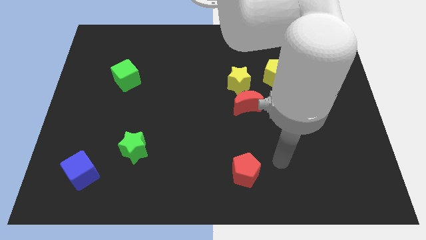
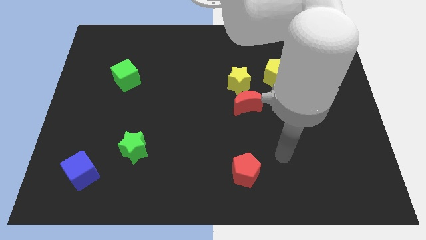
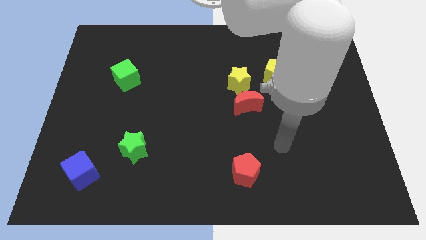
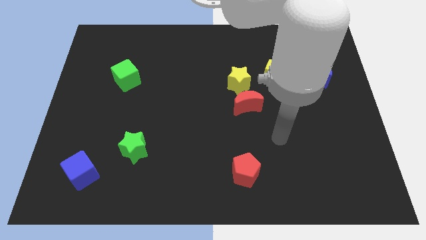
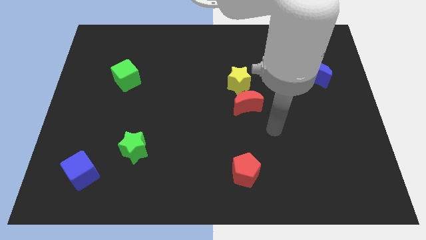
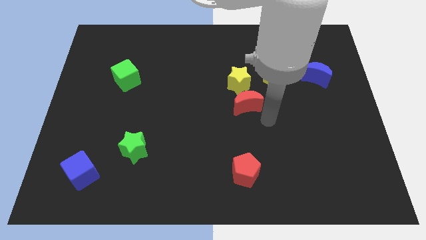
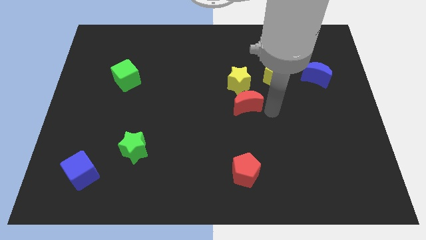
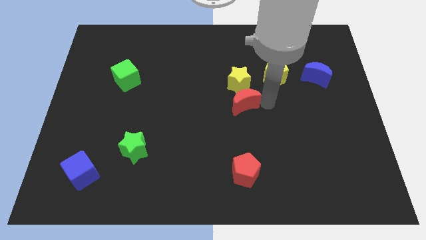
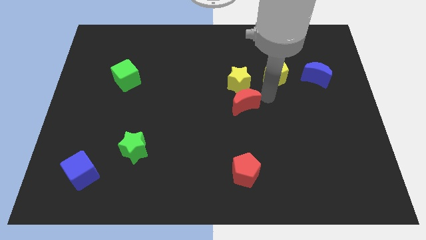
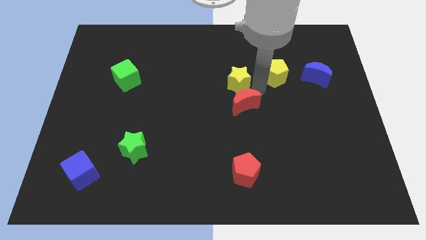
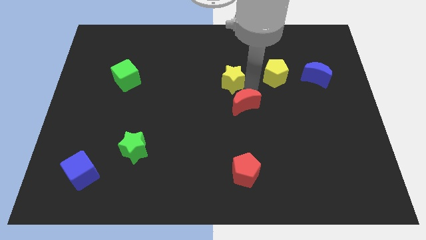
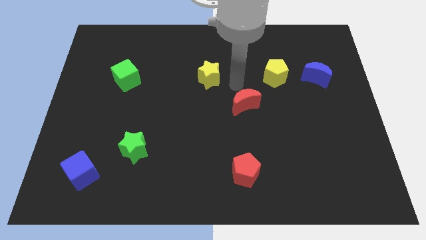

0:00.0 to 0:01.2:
separate the red moon from the yellow star

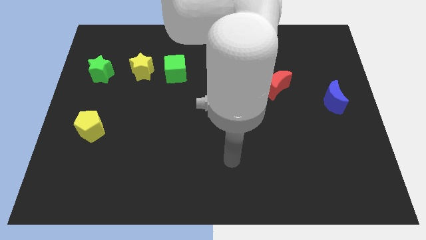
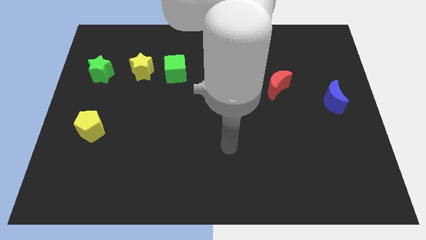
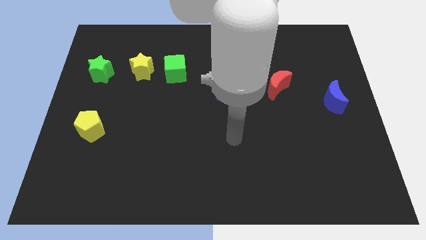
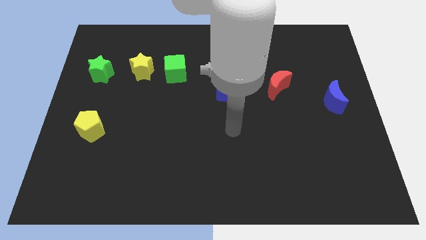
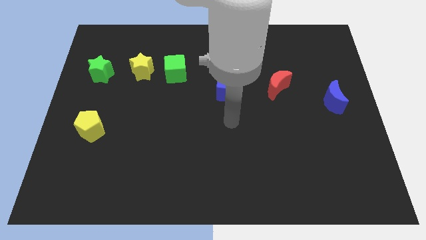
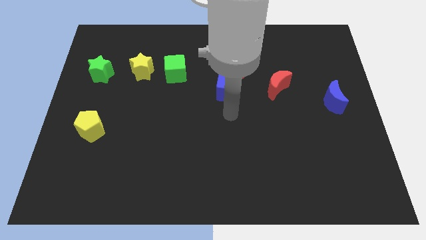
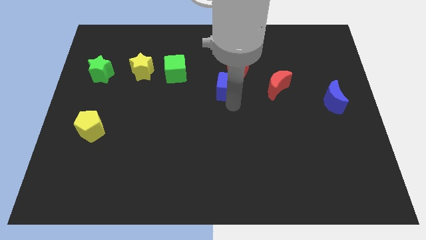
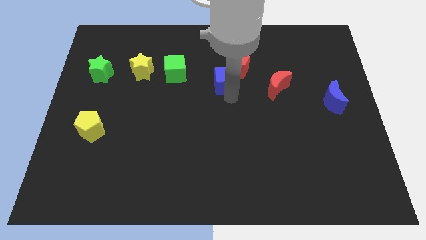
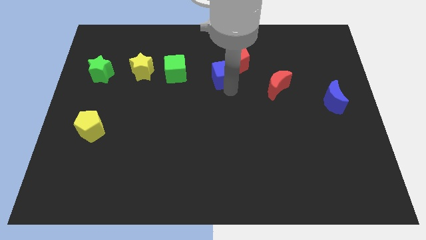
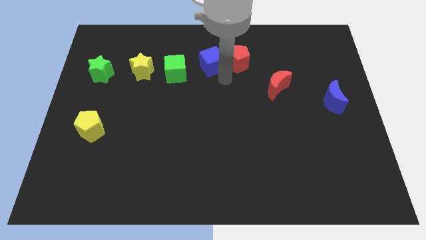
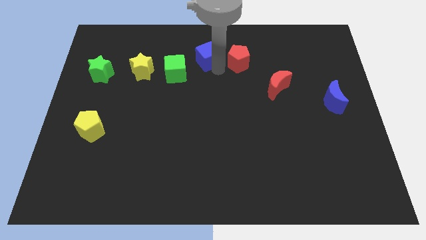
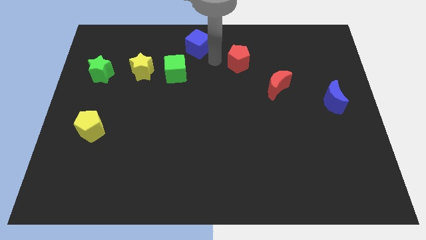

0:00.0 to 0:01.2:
pull the red pentagon apart from the blue cube

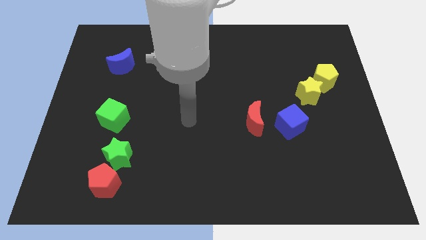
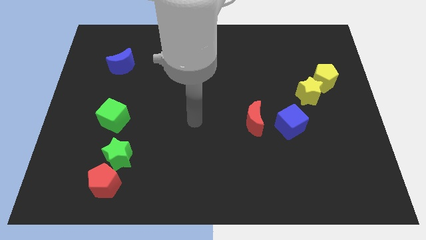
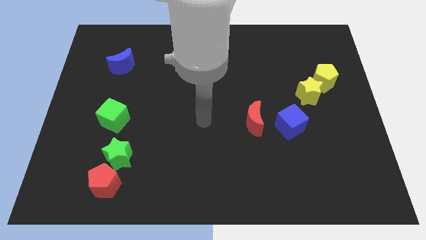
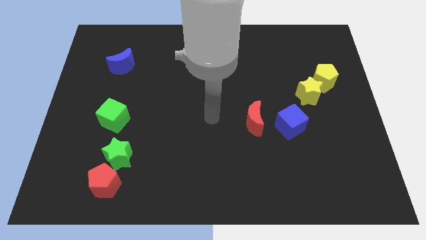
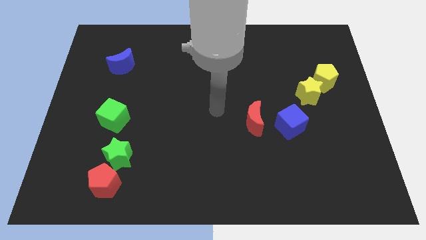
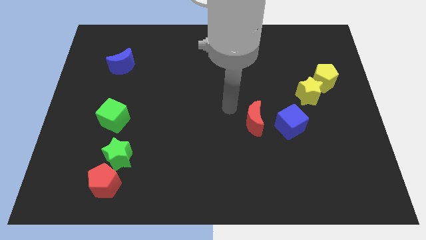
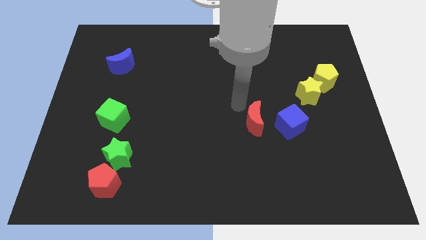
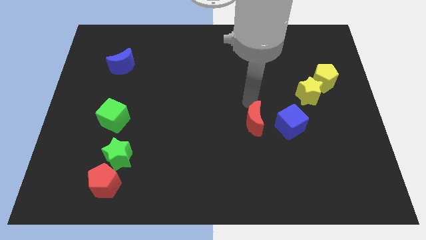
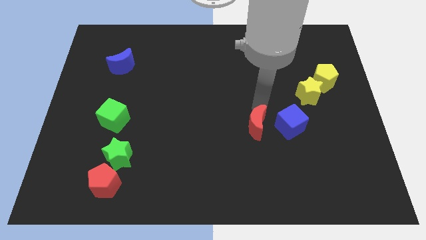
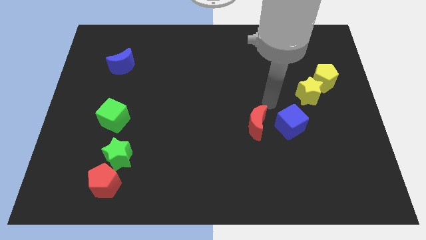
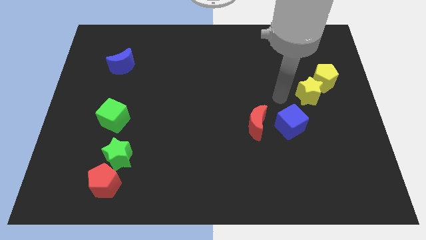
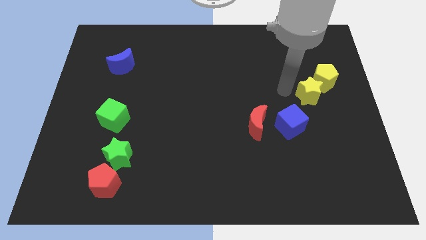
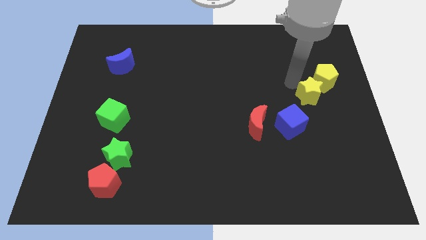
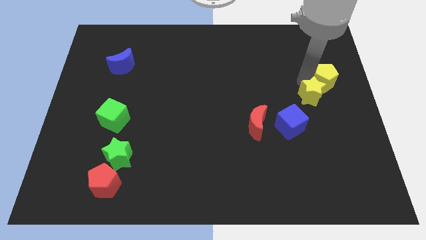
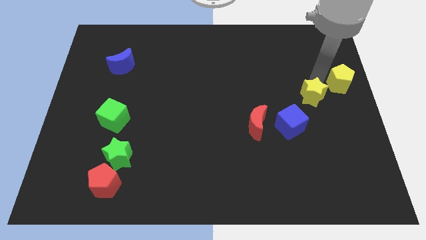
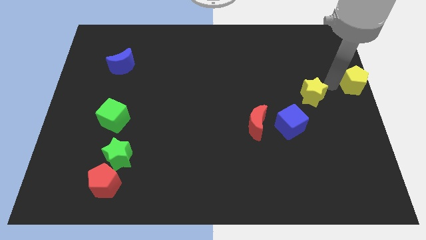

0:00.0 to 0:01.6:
pull the yellow star apart from the yellow pentagon

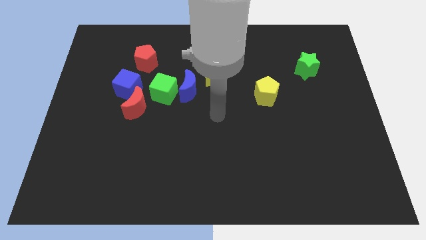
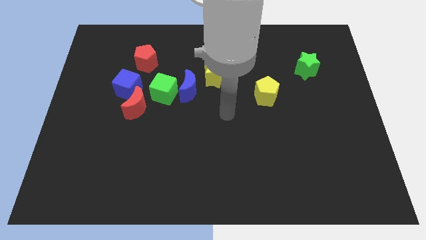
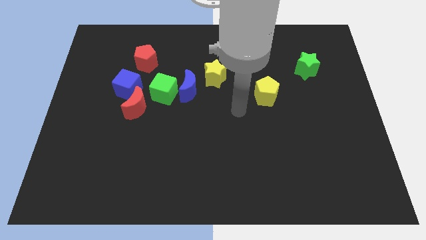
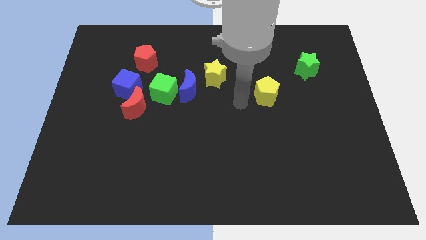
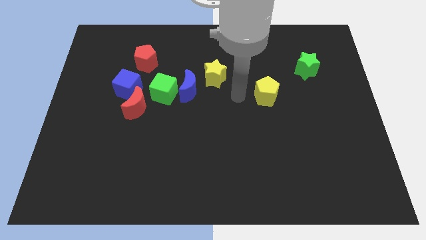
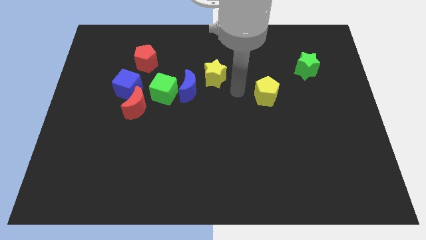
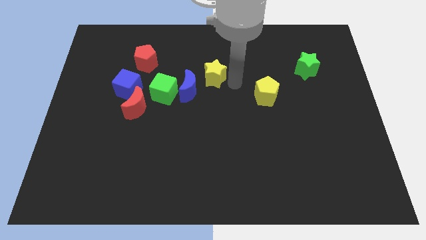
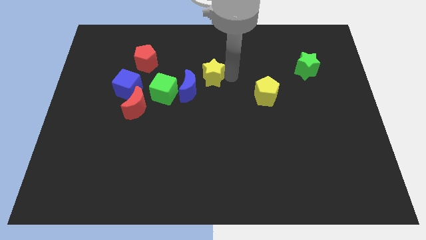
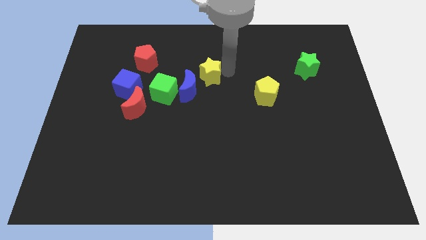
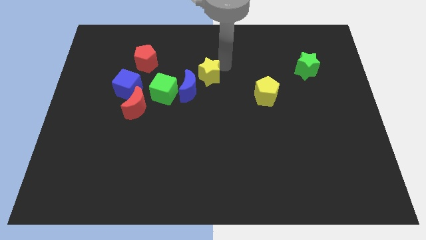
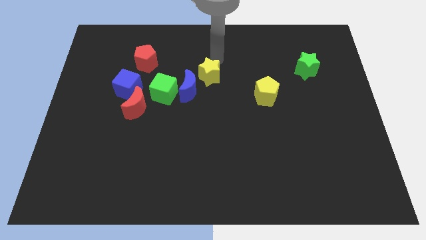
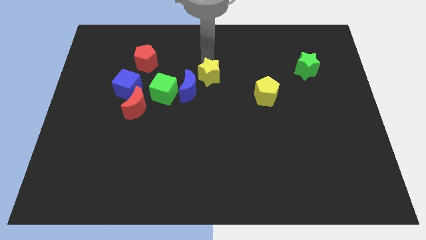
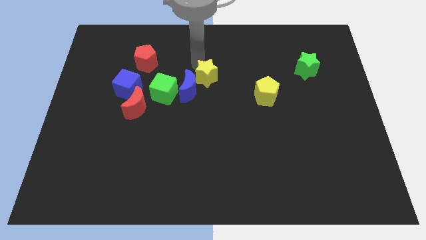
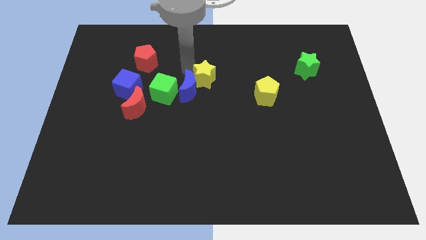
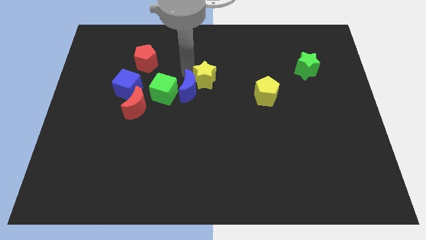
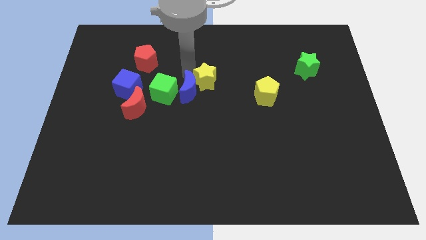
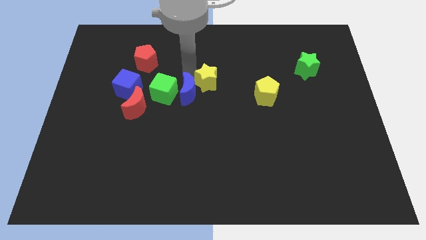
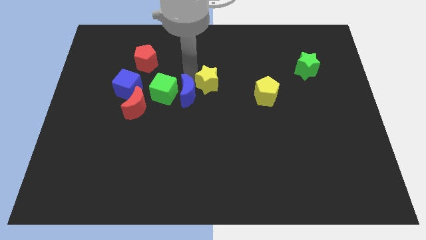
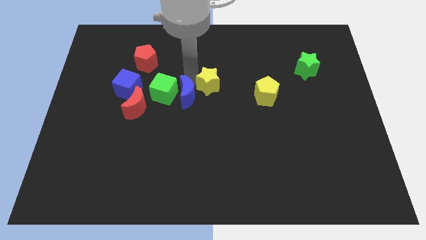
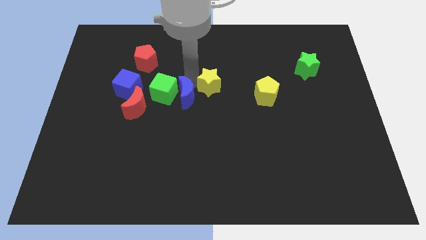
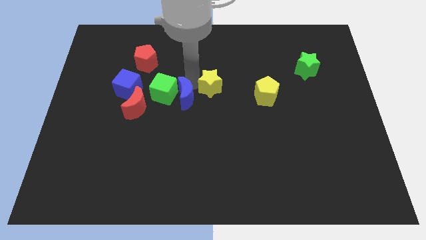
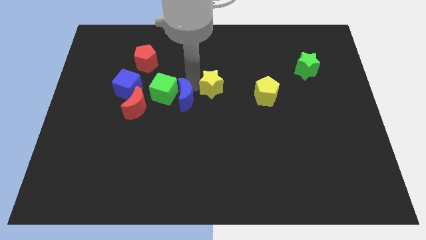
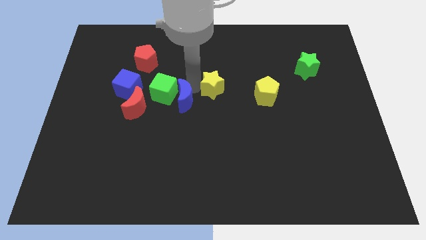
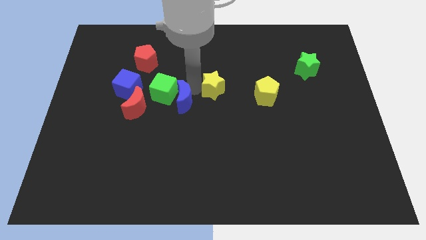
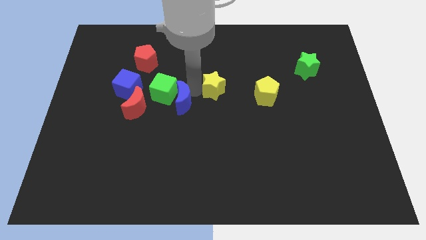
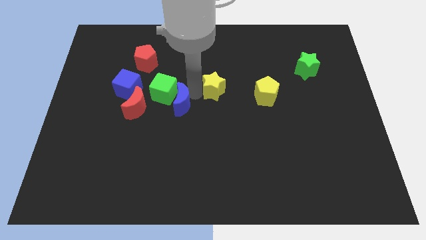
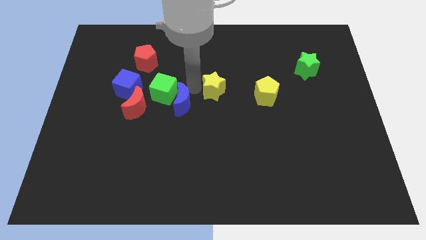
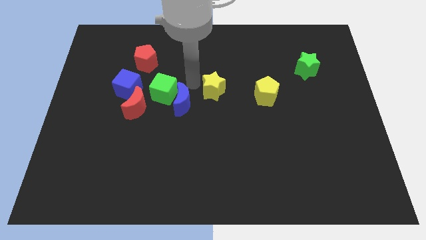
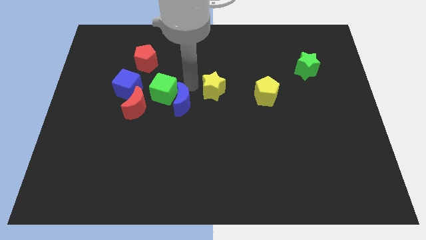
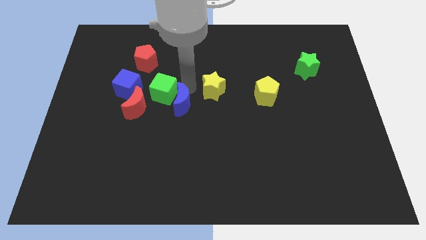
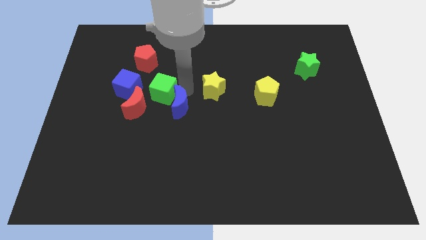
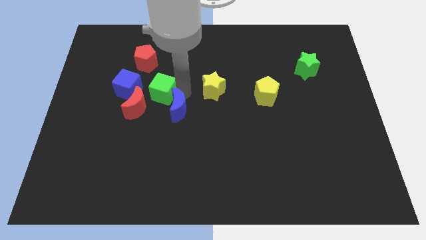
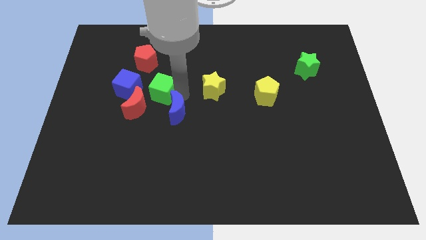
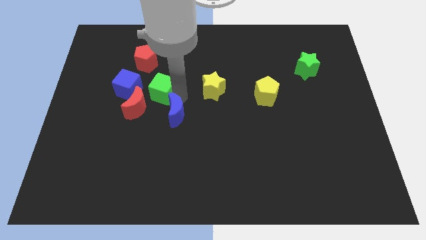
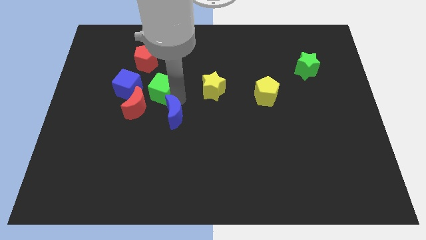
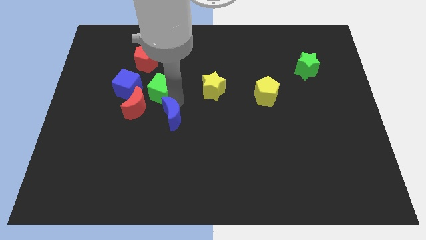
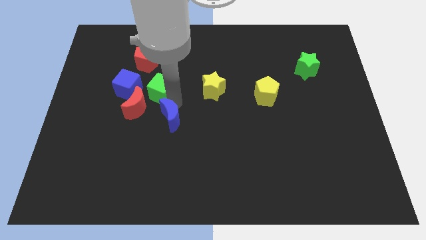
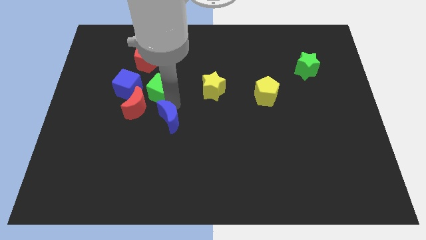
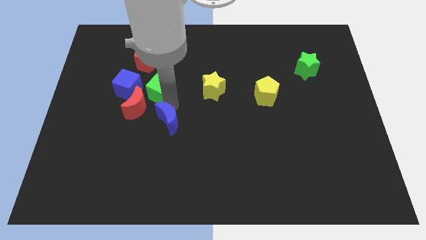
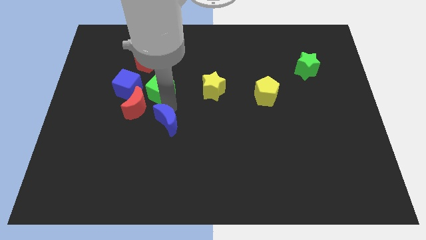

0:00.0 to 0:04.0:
pull the blue moon apart from the green cube and yellow star

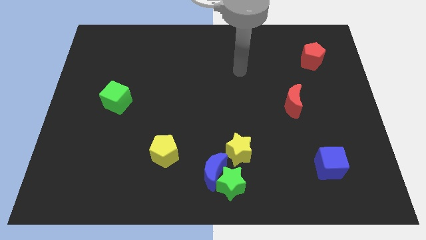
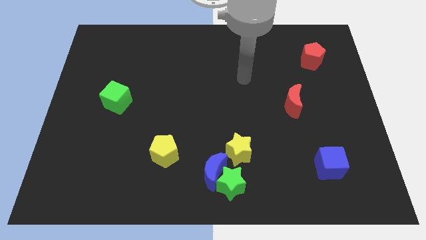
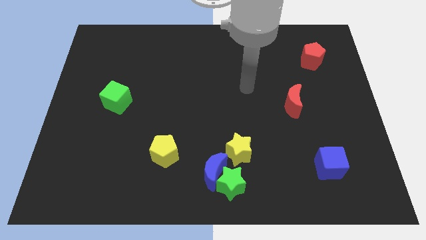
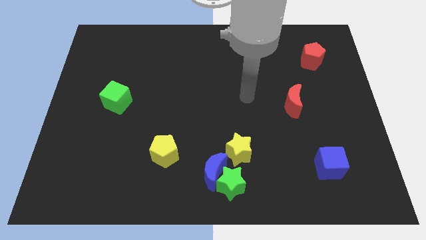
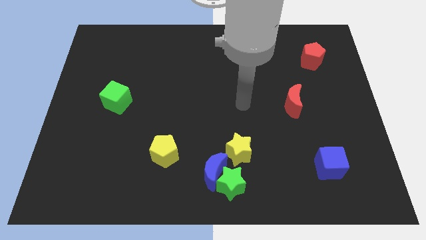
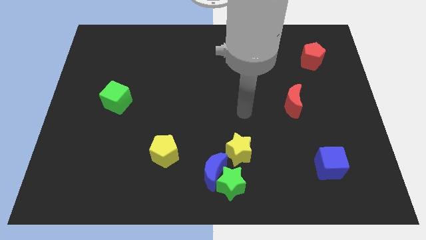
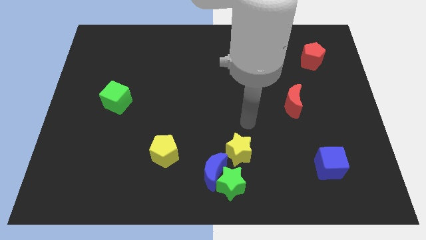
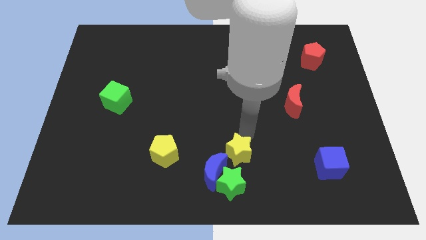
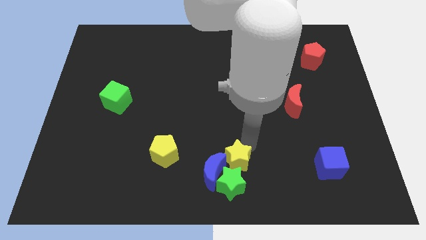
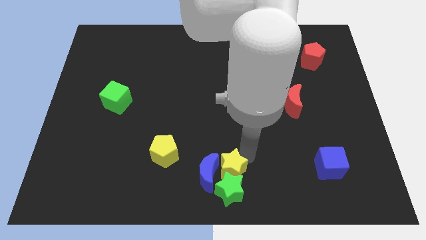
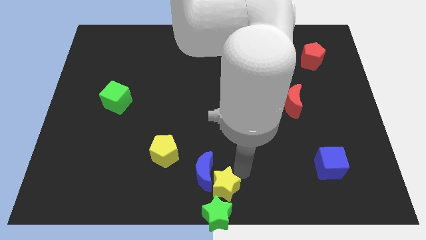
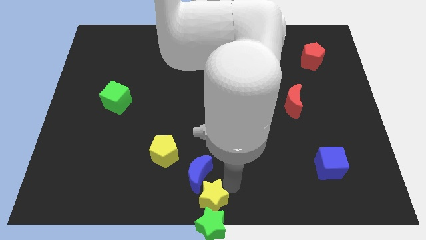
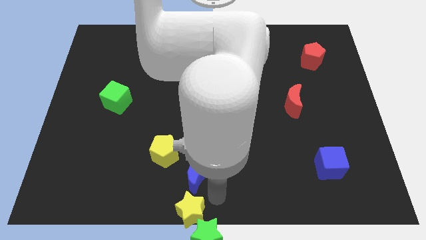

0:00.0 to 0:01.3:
separate the blue moon from the green star and yellow star
